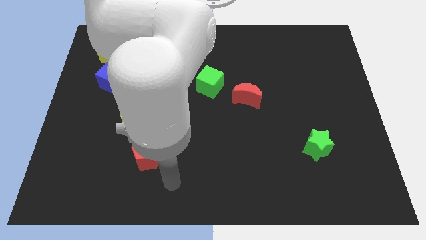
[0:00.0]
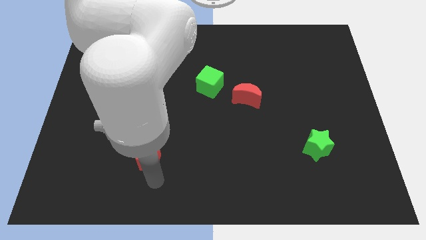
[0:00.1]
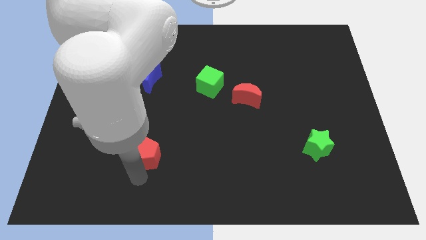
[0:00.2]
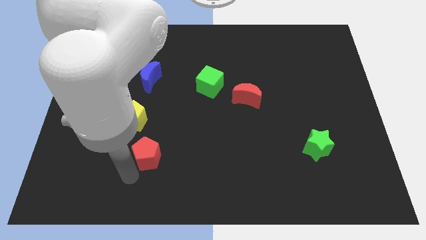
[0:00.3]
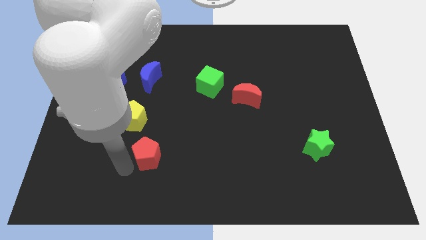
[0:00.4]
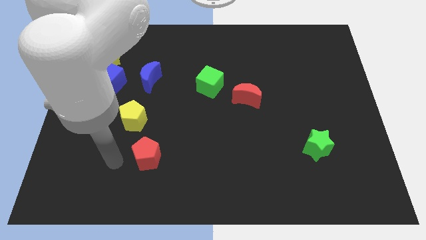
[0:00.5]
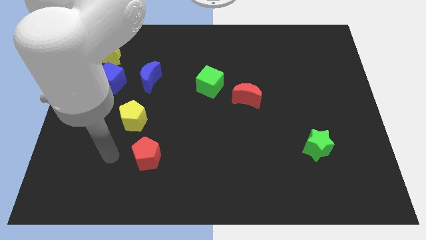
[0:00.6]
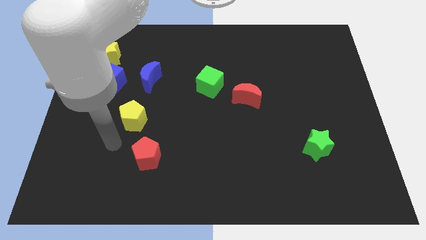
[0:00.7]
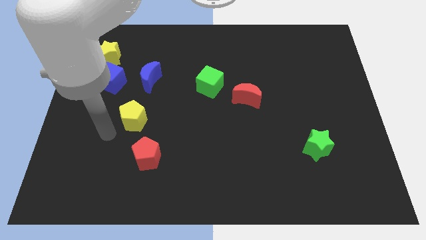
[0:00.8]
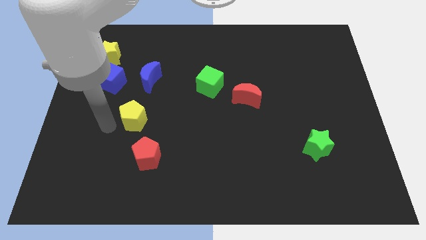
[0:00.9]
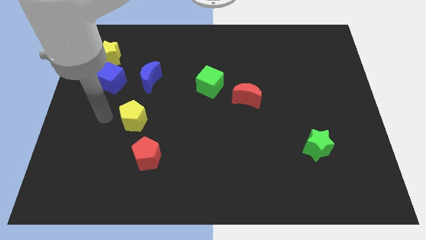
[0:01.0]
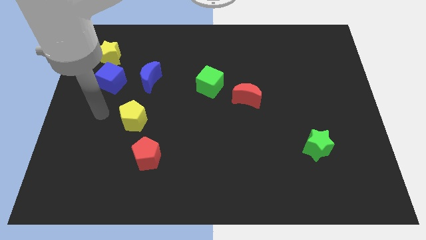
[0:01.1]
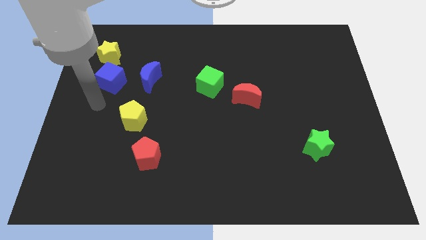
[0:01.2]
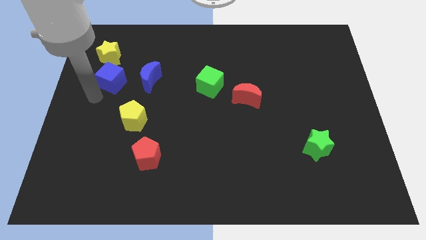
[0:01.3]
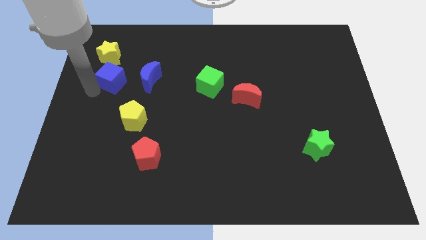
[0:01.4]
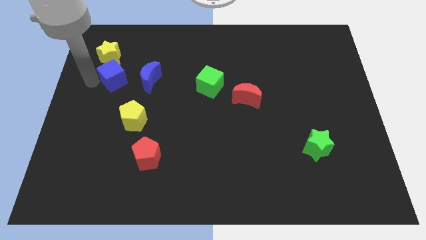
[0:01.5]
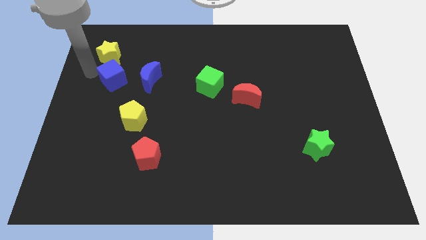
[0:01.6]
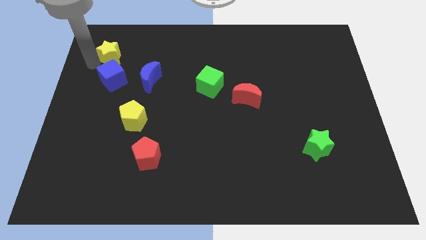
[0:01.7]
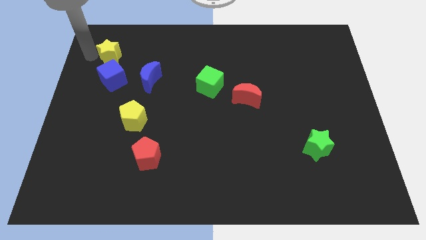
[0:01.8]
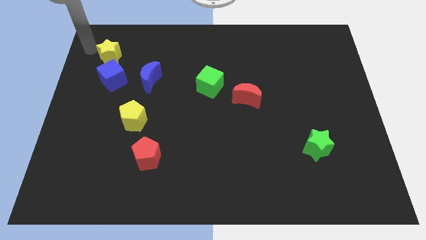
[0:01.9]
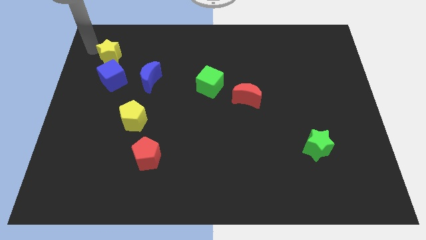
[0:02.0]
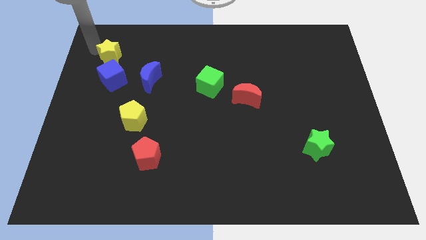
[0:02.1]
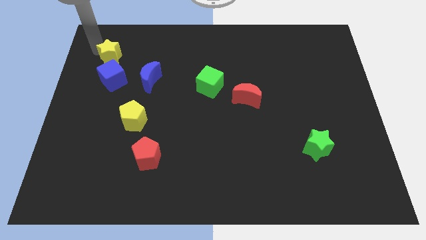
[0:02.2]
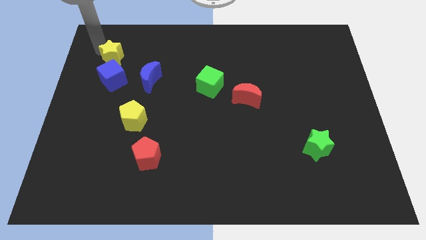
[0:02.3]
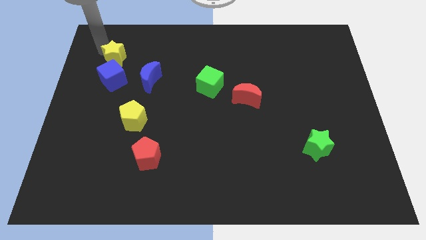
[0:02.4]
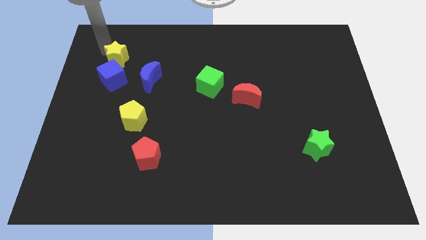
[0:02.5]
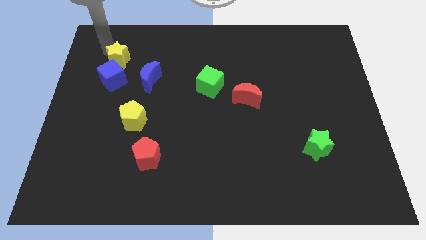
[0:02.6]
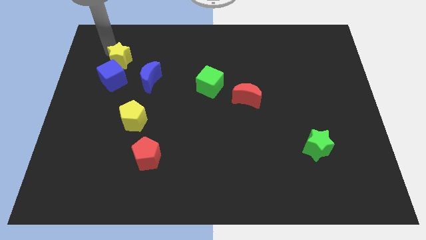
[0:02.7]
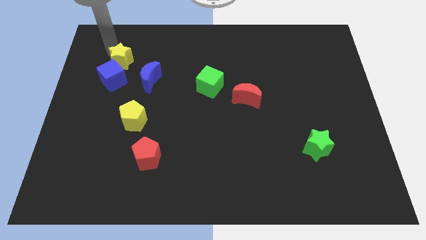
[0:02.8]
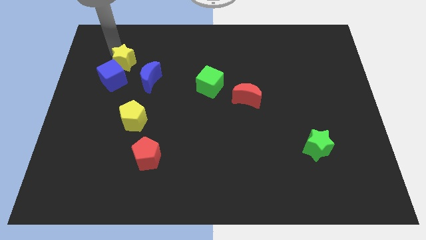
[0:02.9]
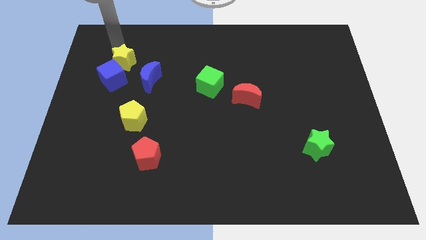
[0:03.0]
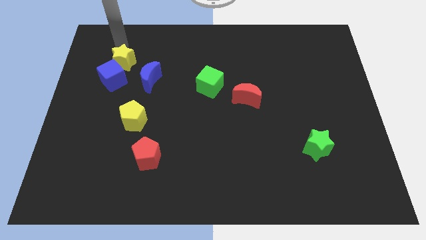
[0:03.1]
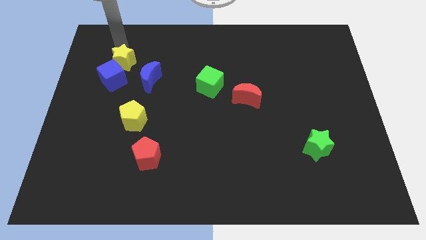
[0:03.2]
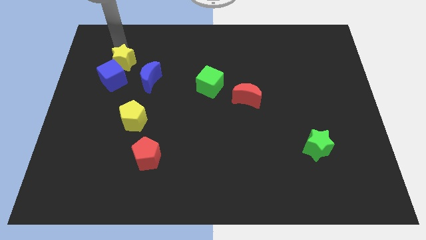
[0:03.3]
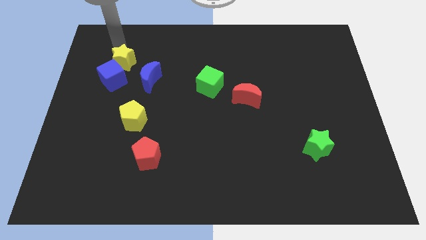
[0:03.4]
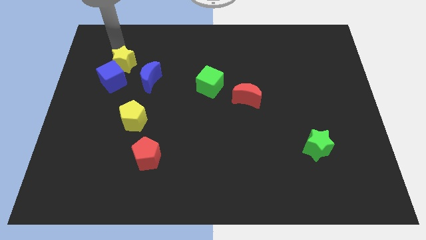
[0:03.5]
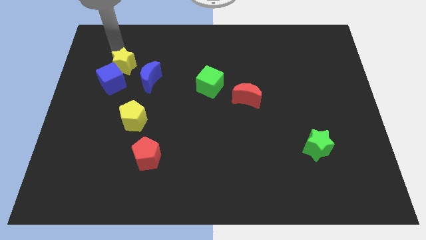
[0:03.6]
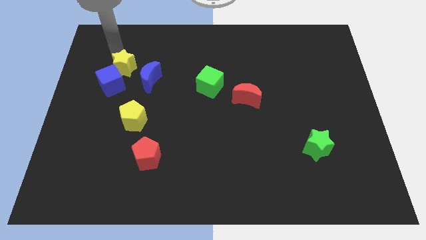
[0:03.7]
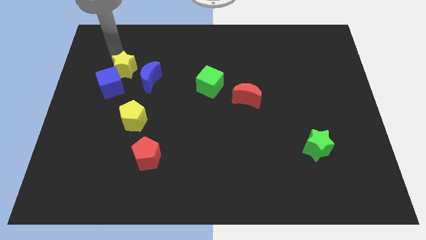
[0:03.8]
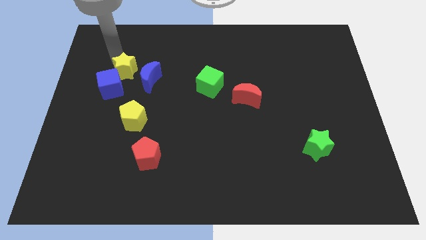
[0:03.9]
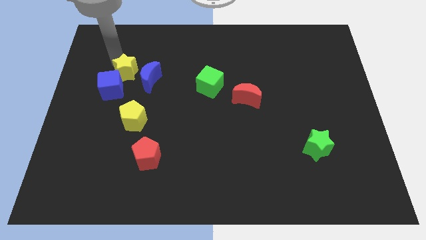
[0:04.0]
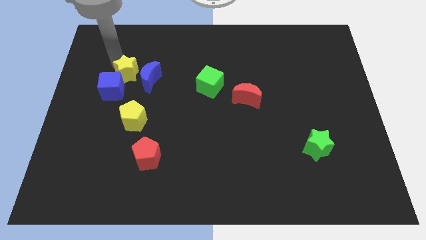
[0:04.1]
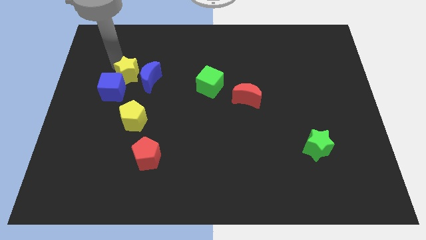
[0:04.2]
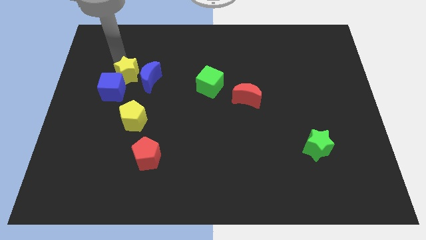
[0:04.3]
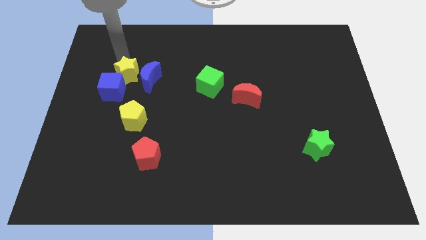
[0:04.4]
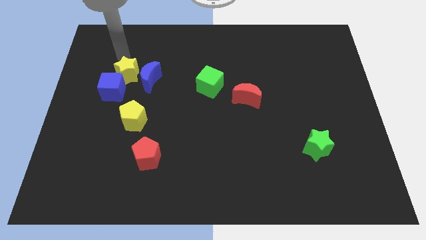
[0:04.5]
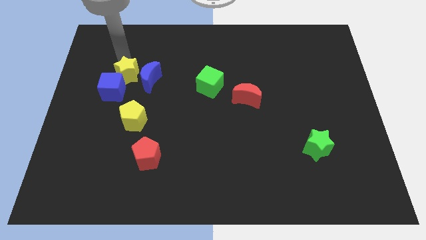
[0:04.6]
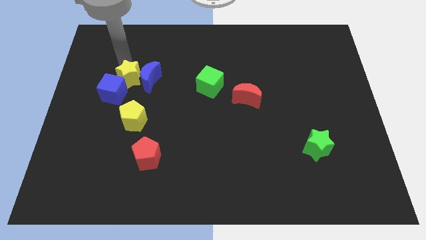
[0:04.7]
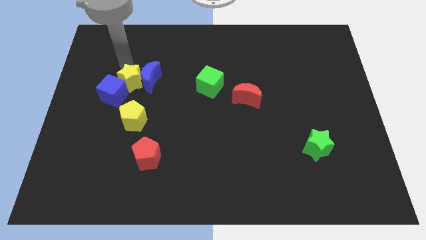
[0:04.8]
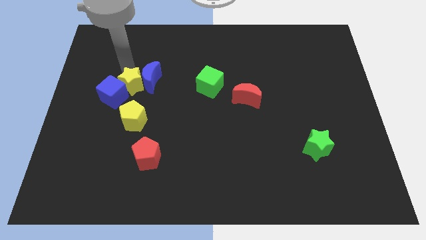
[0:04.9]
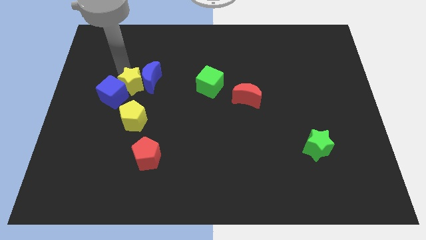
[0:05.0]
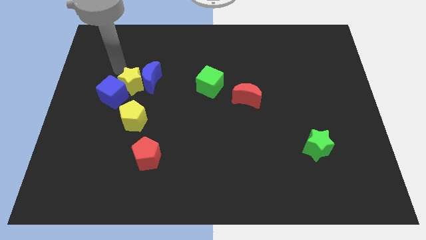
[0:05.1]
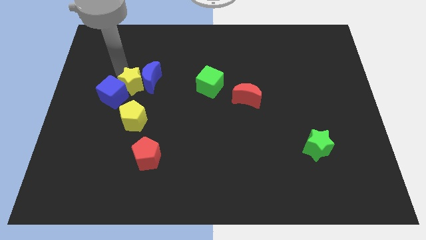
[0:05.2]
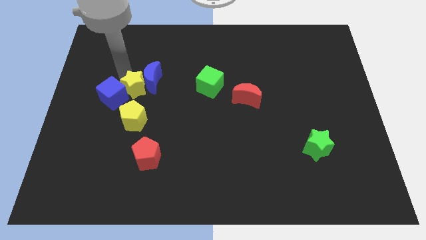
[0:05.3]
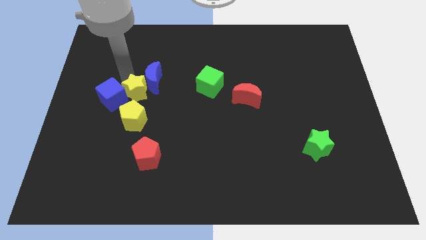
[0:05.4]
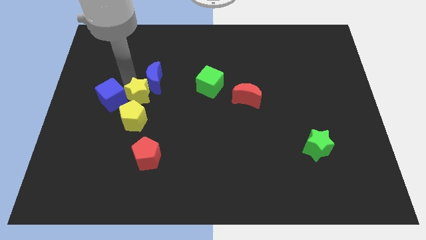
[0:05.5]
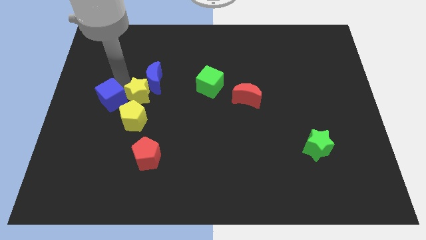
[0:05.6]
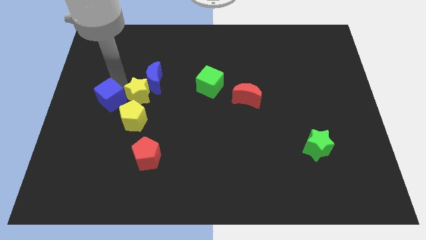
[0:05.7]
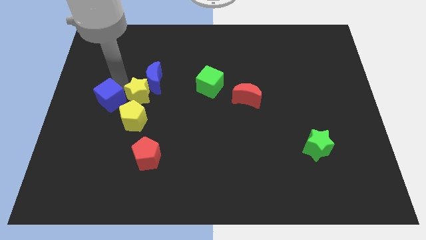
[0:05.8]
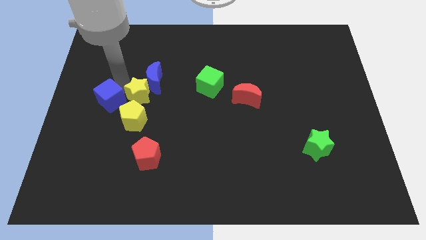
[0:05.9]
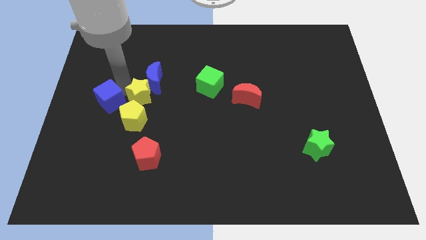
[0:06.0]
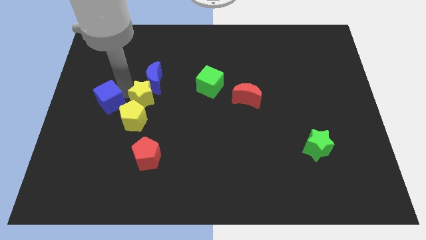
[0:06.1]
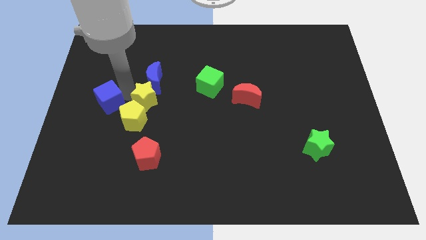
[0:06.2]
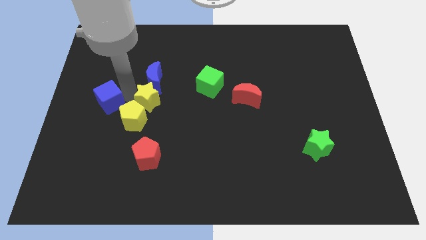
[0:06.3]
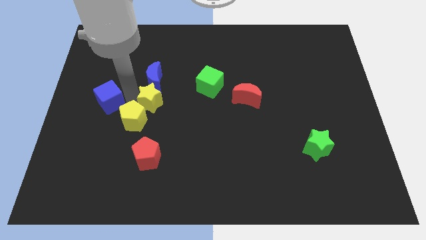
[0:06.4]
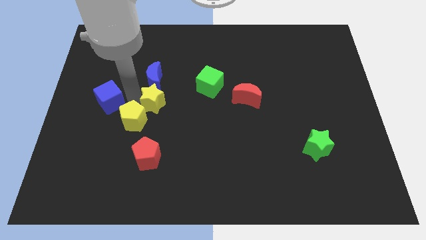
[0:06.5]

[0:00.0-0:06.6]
push the yellow star diagonally downwards and right

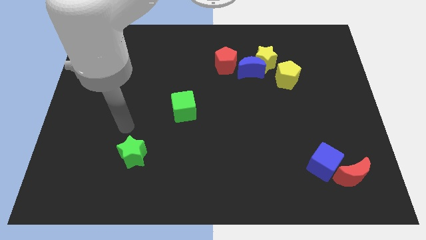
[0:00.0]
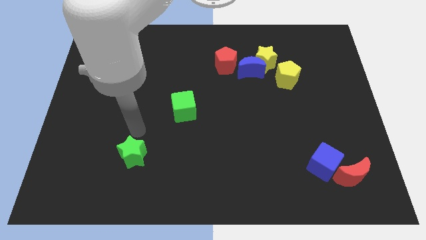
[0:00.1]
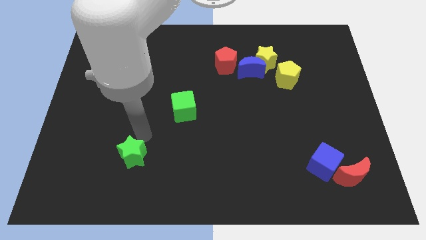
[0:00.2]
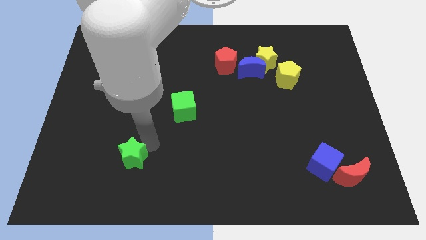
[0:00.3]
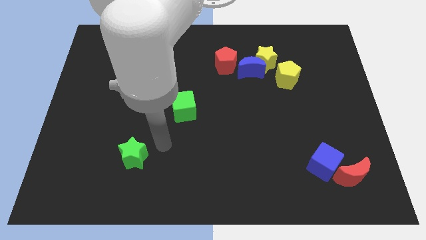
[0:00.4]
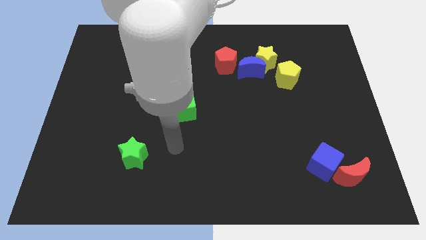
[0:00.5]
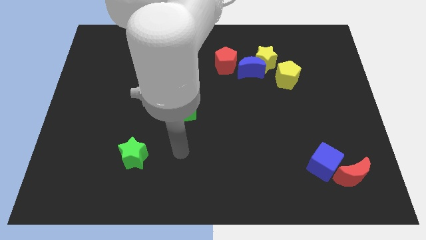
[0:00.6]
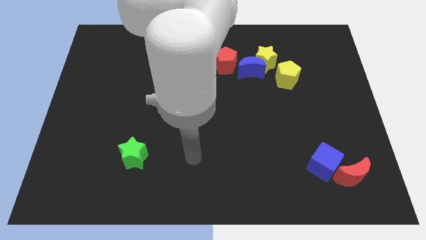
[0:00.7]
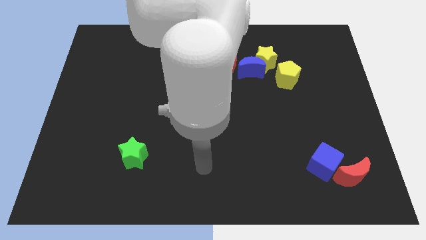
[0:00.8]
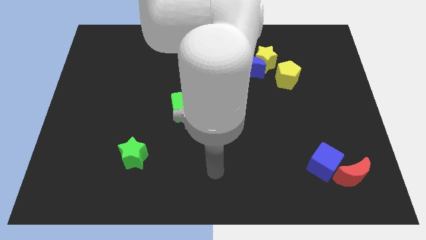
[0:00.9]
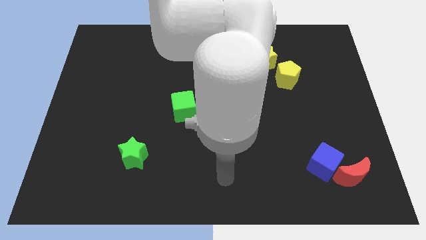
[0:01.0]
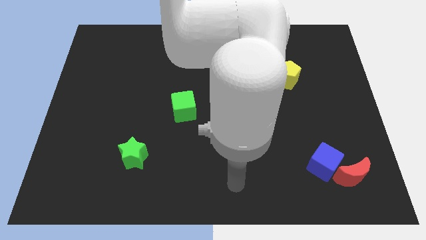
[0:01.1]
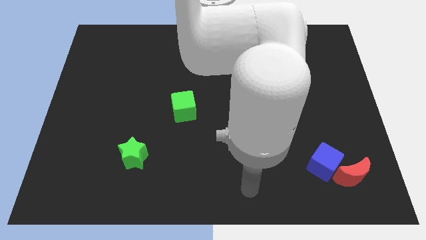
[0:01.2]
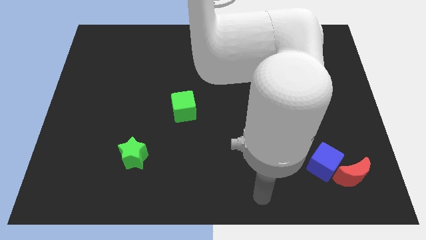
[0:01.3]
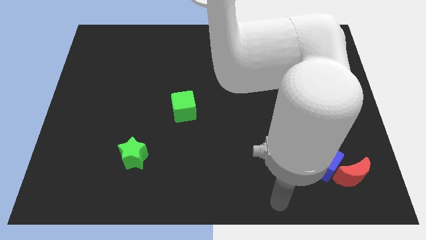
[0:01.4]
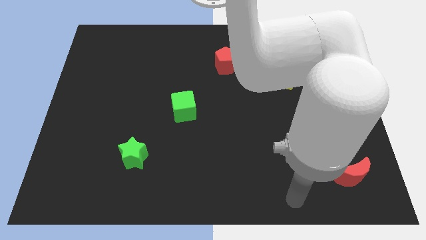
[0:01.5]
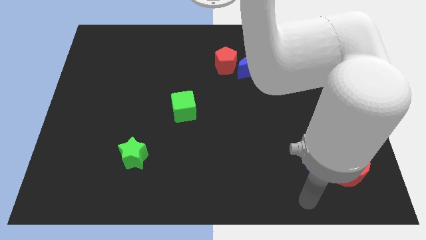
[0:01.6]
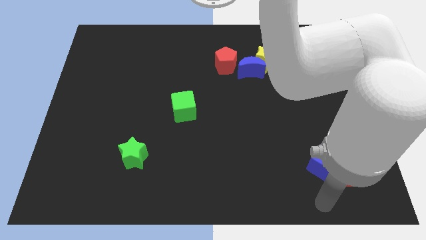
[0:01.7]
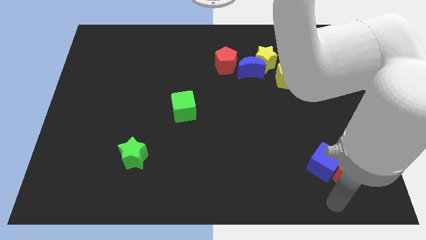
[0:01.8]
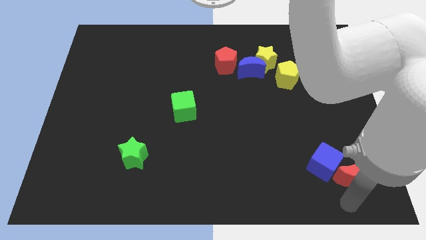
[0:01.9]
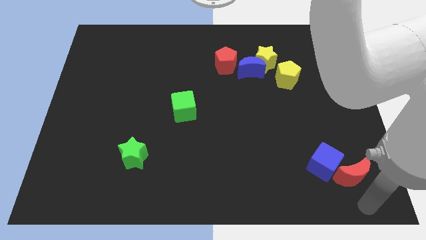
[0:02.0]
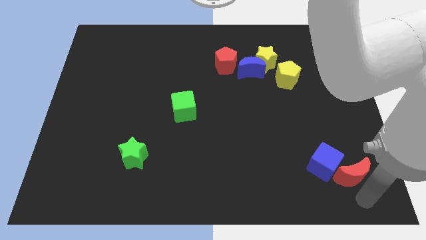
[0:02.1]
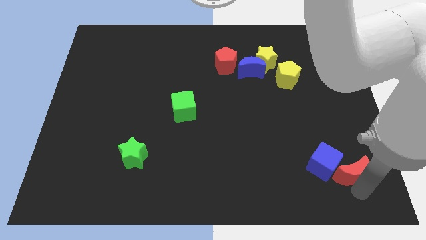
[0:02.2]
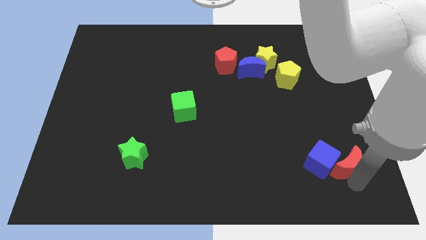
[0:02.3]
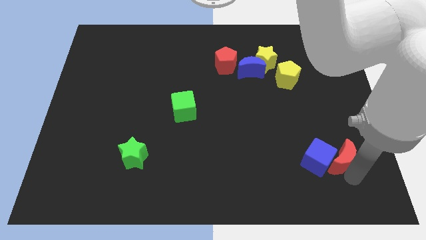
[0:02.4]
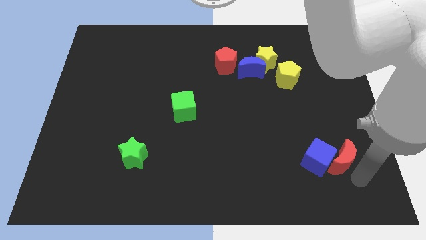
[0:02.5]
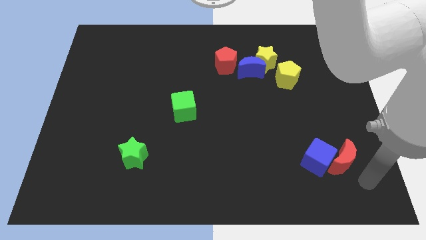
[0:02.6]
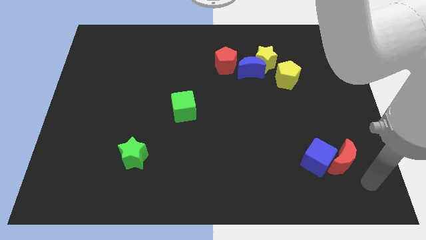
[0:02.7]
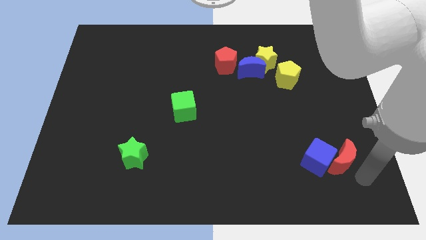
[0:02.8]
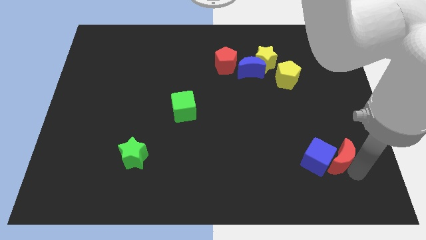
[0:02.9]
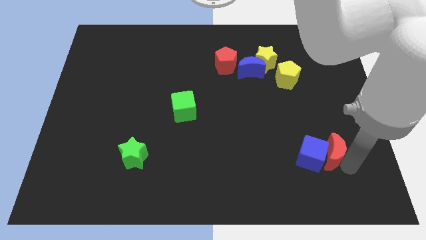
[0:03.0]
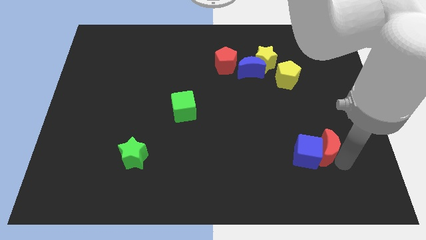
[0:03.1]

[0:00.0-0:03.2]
move the red moon a little bit upwards and left
